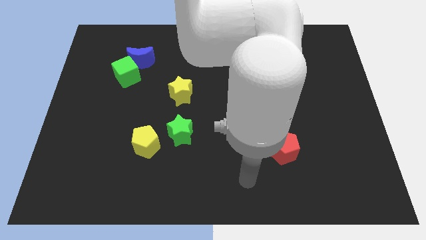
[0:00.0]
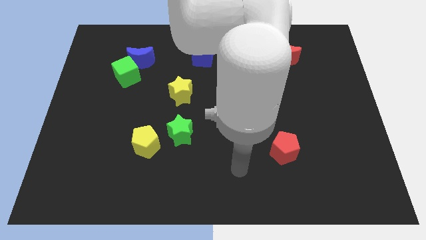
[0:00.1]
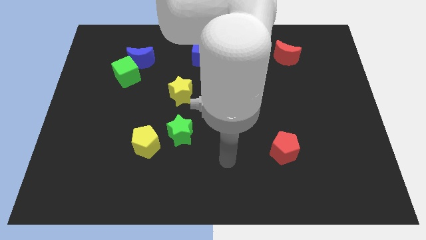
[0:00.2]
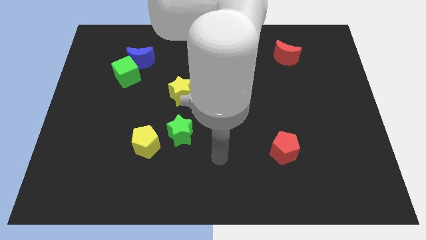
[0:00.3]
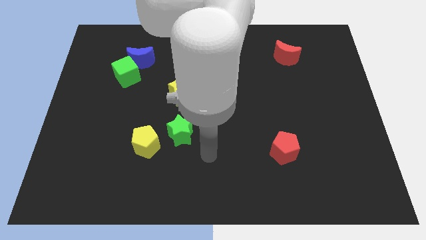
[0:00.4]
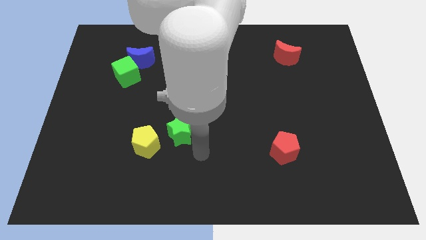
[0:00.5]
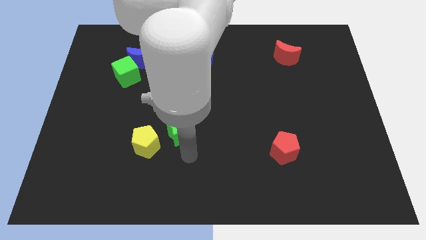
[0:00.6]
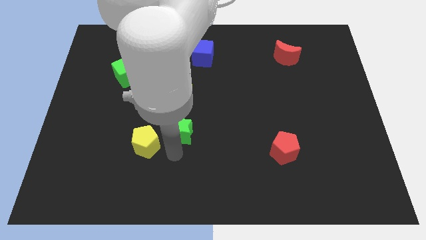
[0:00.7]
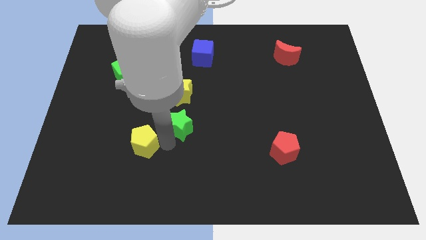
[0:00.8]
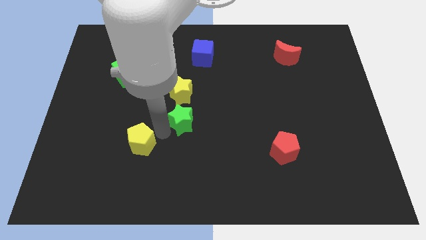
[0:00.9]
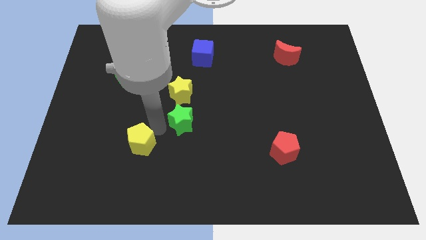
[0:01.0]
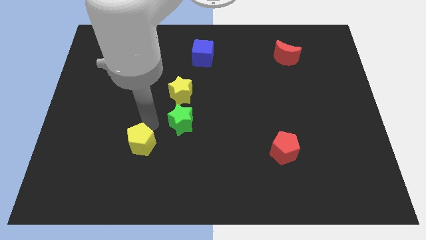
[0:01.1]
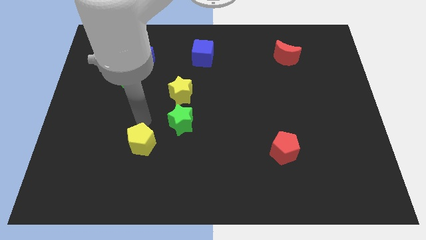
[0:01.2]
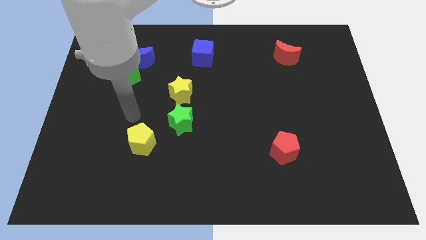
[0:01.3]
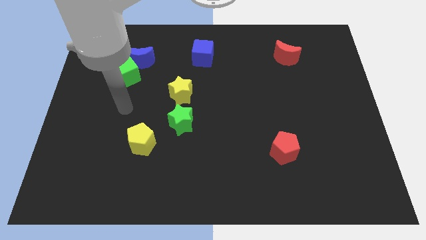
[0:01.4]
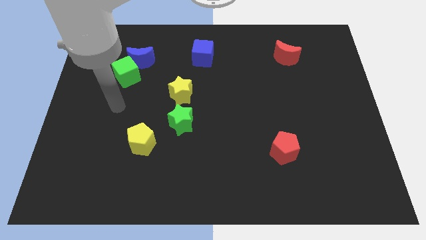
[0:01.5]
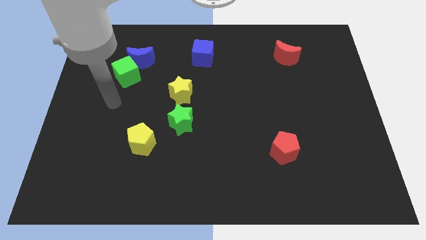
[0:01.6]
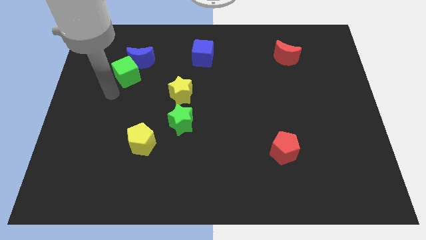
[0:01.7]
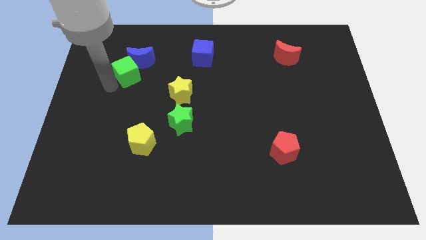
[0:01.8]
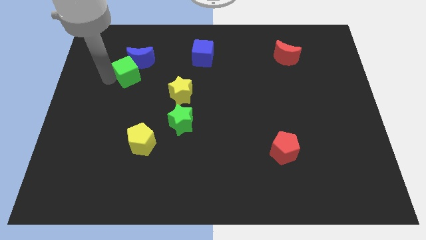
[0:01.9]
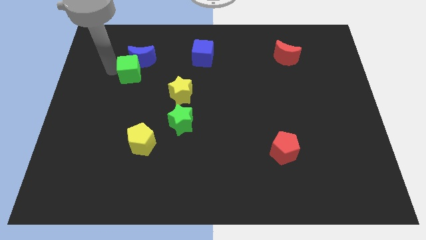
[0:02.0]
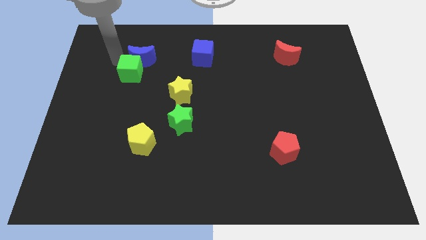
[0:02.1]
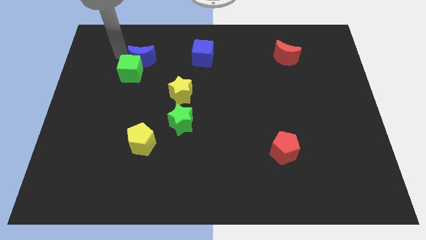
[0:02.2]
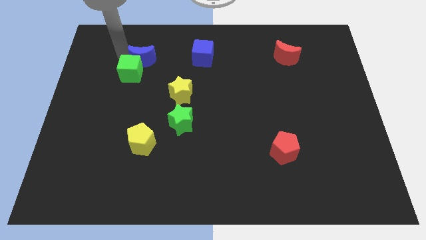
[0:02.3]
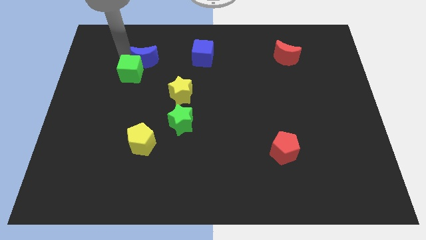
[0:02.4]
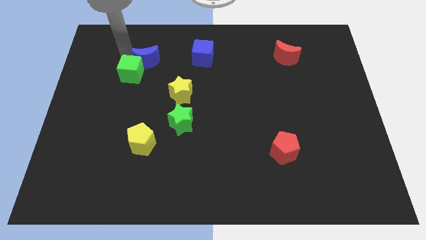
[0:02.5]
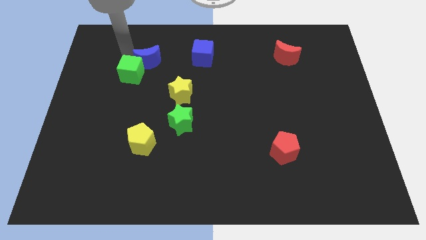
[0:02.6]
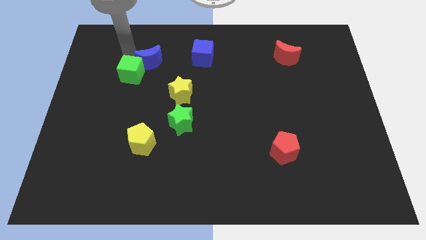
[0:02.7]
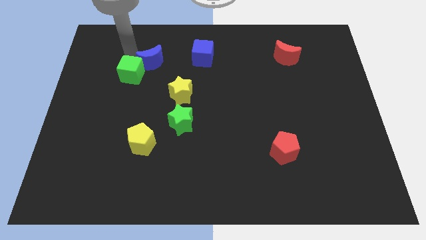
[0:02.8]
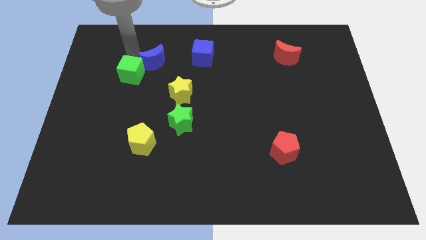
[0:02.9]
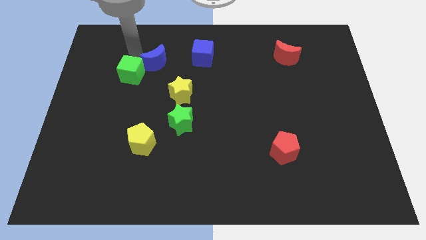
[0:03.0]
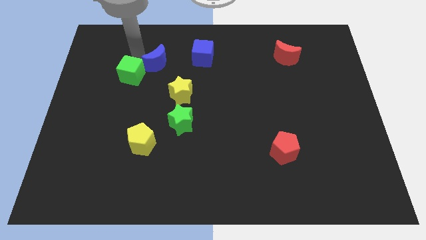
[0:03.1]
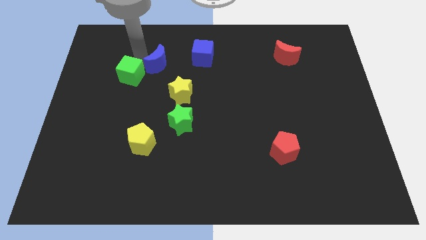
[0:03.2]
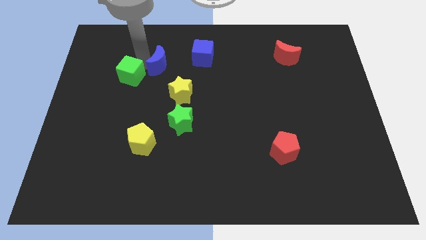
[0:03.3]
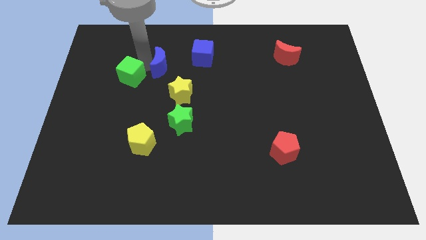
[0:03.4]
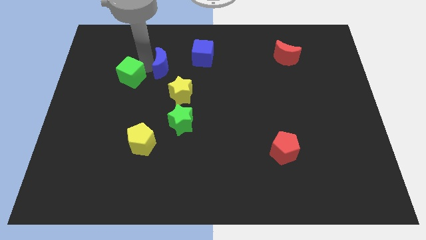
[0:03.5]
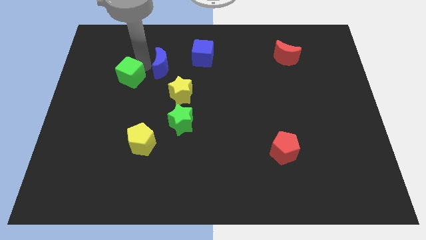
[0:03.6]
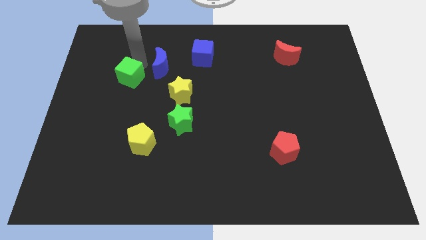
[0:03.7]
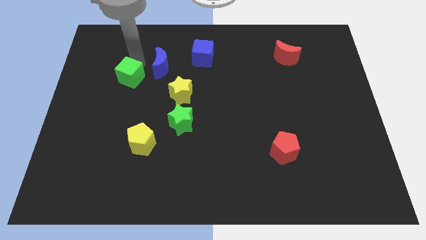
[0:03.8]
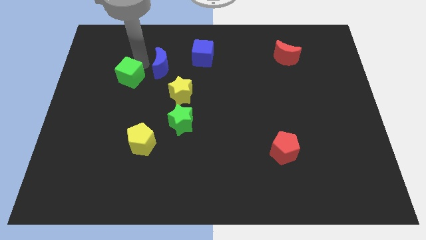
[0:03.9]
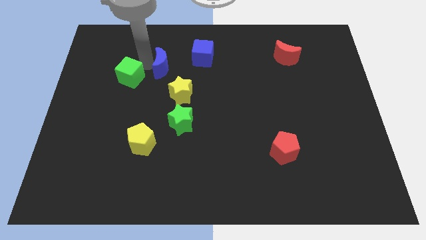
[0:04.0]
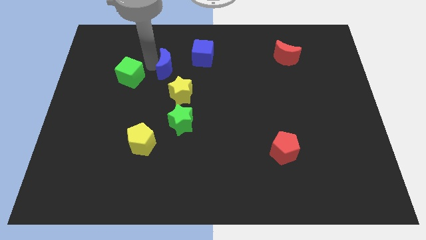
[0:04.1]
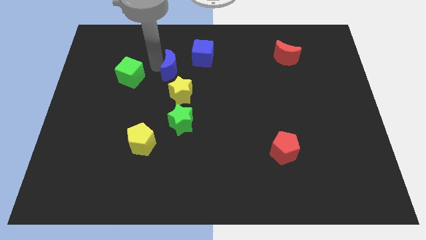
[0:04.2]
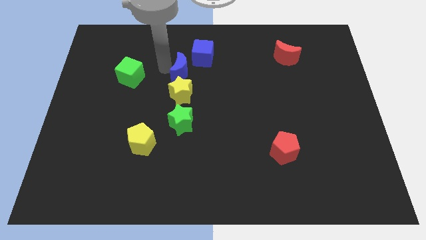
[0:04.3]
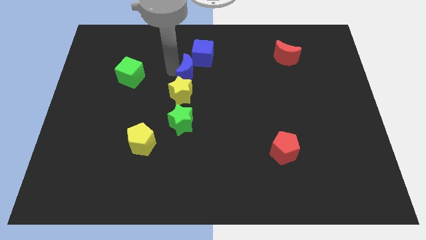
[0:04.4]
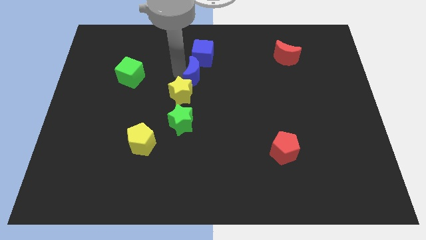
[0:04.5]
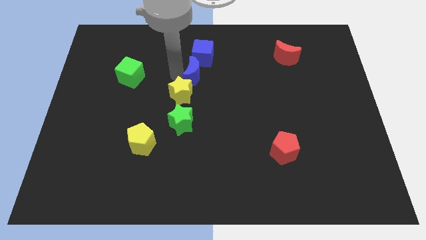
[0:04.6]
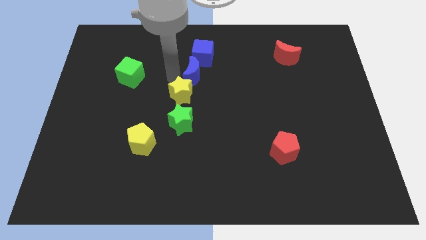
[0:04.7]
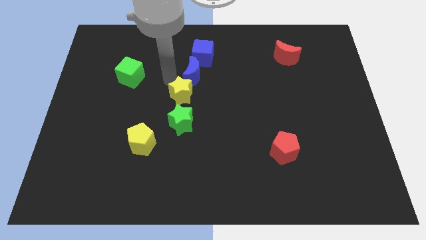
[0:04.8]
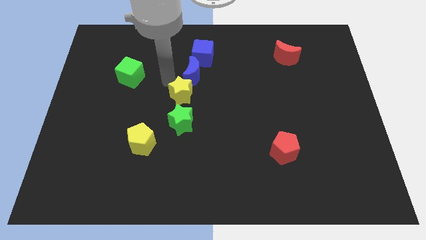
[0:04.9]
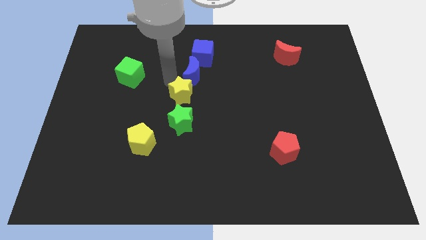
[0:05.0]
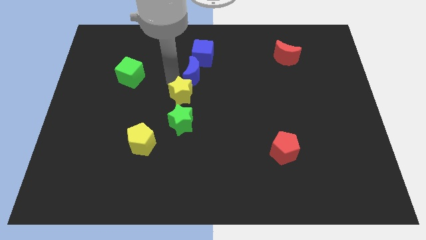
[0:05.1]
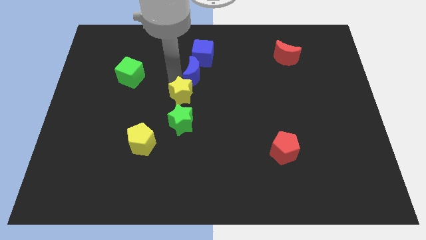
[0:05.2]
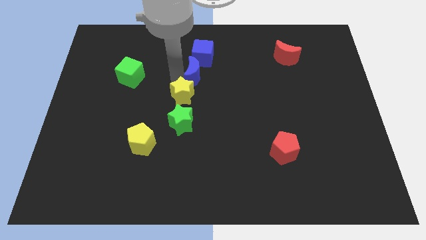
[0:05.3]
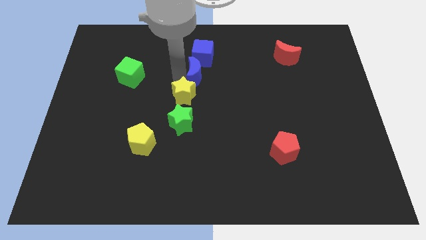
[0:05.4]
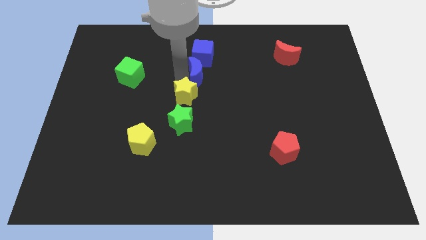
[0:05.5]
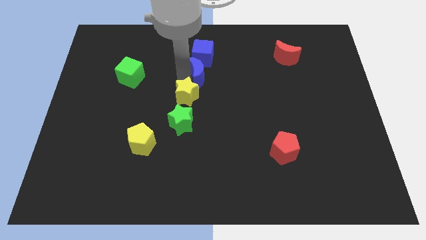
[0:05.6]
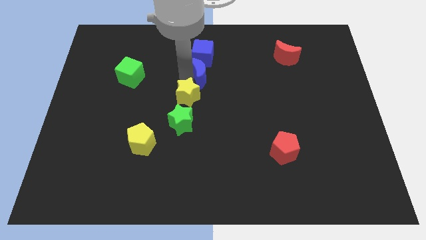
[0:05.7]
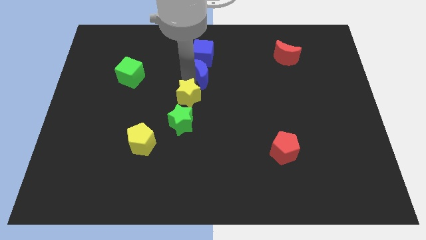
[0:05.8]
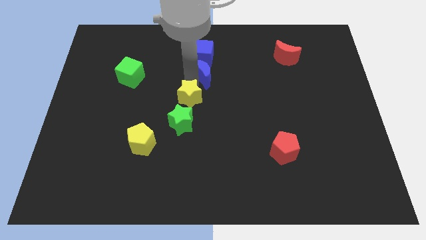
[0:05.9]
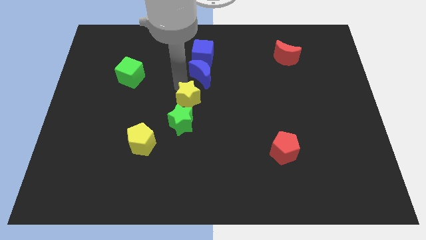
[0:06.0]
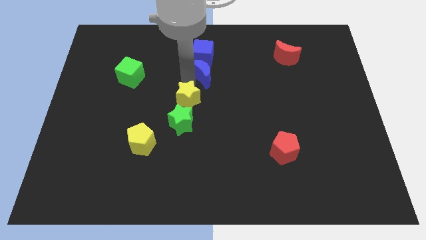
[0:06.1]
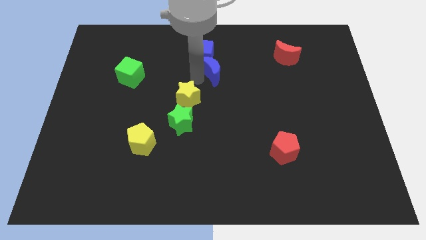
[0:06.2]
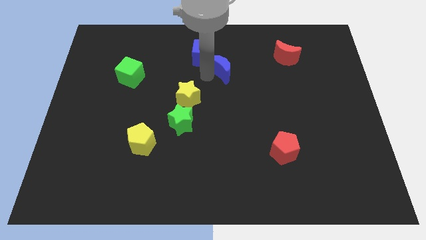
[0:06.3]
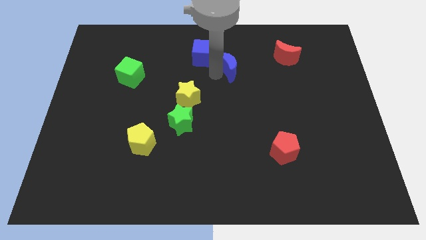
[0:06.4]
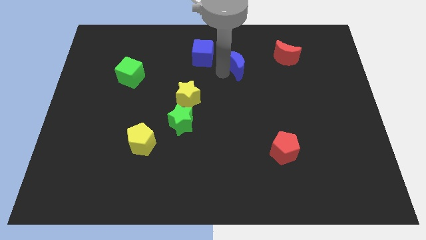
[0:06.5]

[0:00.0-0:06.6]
push the blue moon to the left side of the red moon

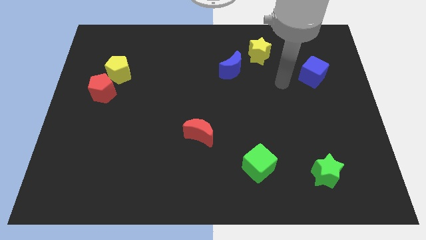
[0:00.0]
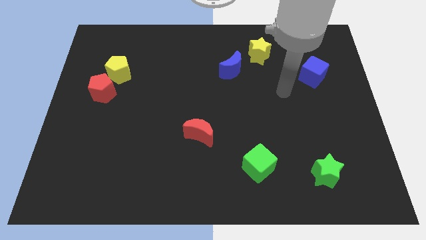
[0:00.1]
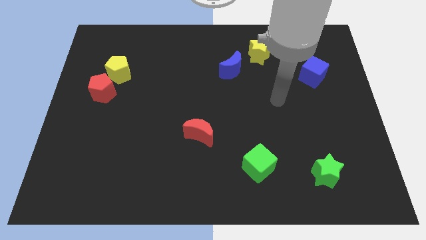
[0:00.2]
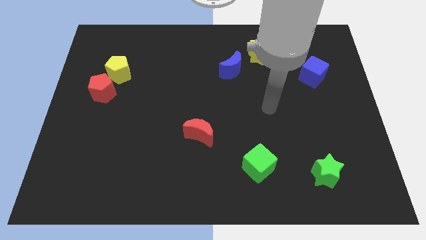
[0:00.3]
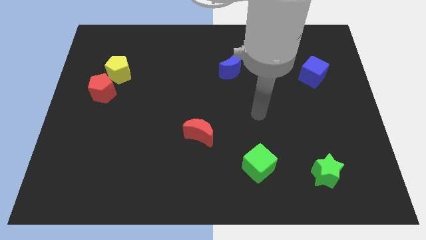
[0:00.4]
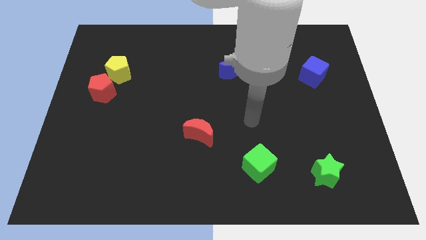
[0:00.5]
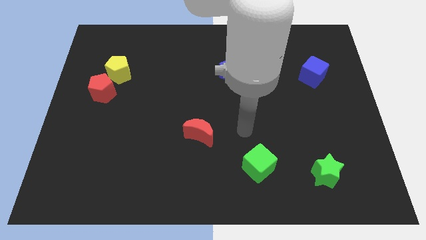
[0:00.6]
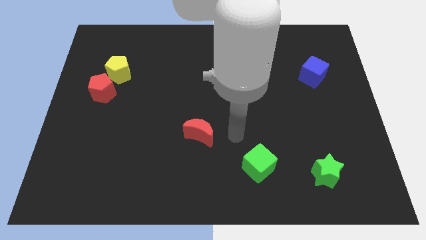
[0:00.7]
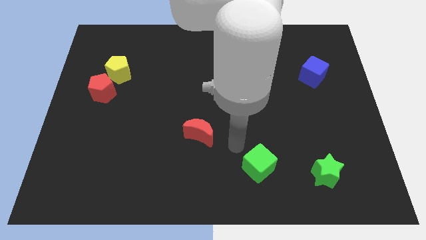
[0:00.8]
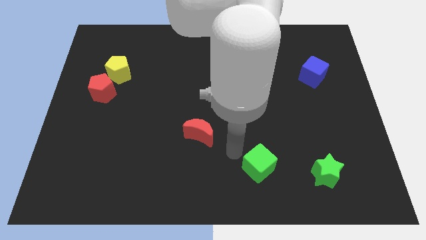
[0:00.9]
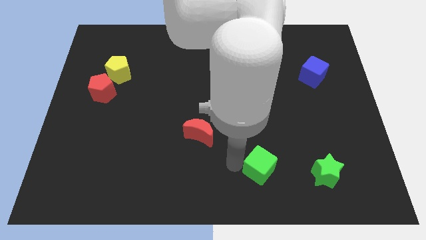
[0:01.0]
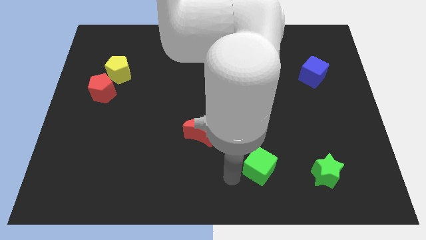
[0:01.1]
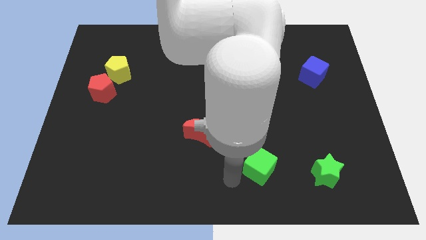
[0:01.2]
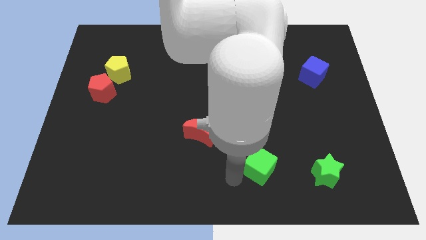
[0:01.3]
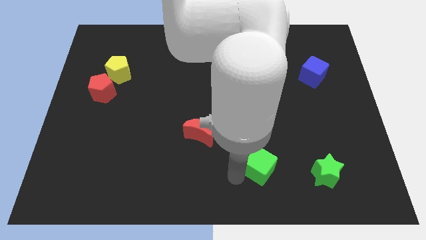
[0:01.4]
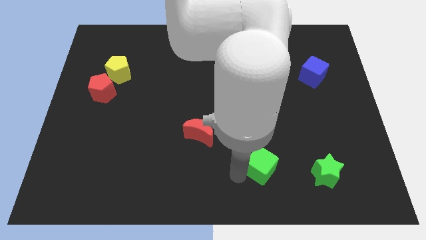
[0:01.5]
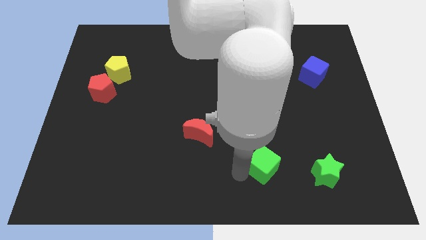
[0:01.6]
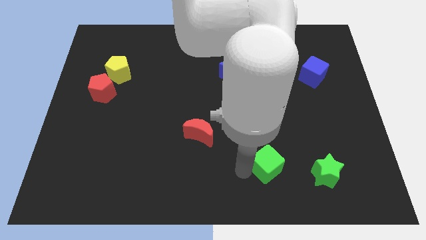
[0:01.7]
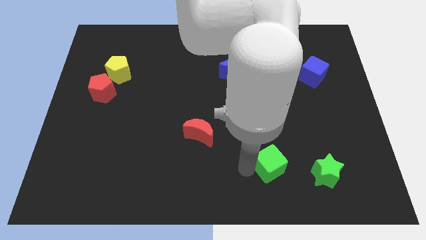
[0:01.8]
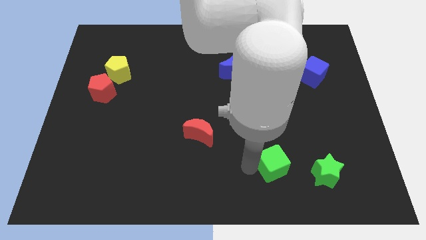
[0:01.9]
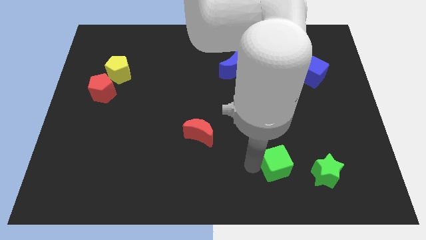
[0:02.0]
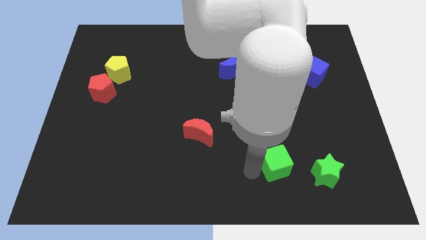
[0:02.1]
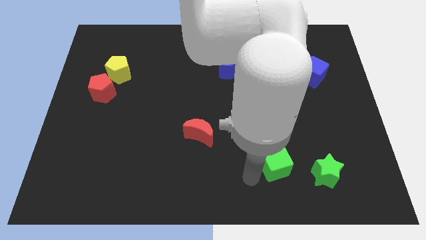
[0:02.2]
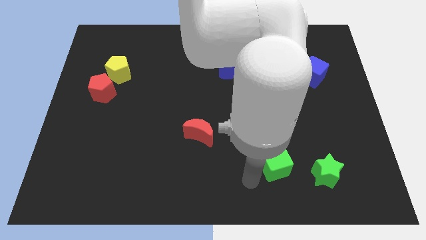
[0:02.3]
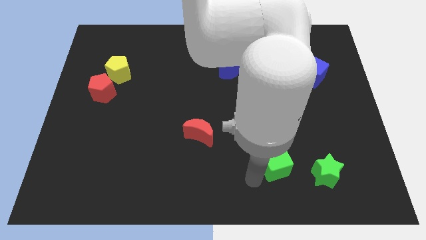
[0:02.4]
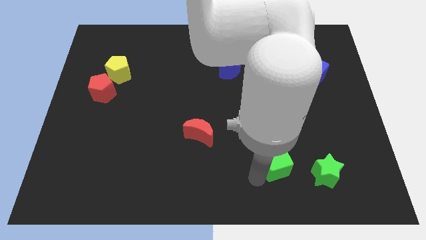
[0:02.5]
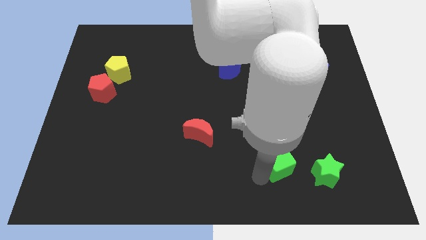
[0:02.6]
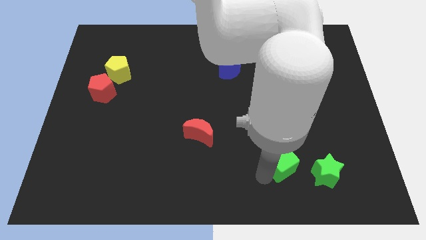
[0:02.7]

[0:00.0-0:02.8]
push the green cube to the top left side of the green star
